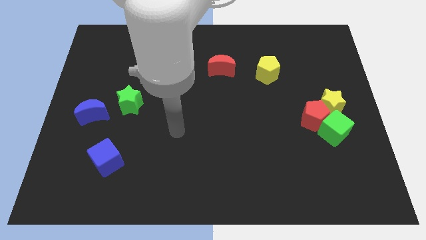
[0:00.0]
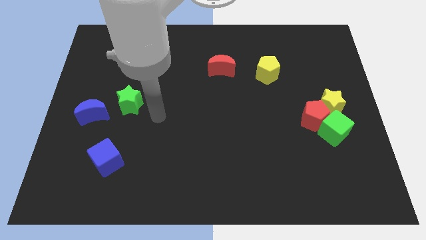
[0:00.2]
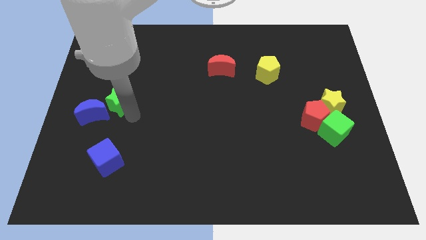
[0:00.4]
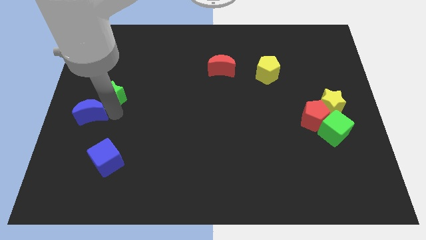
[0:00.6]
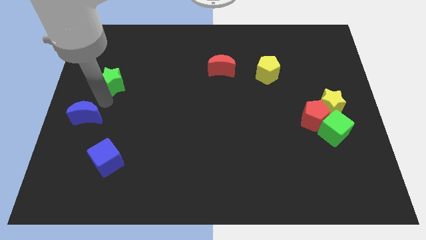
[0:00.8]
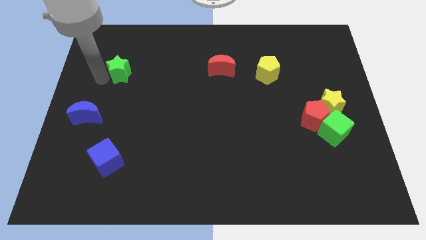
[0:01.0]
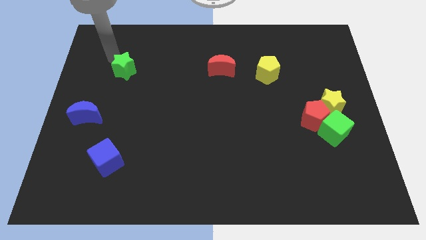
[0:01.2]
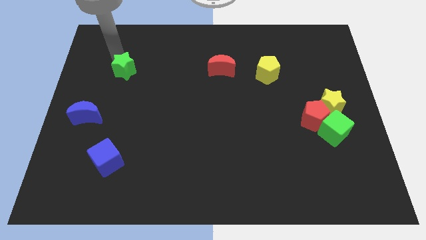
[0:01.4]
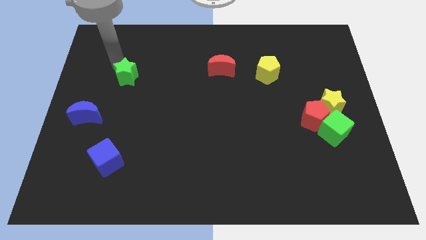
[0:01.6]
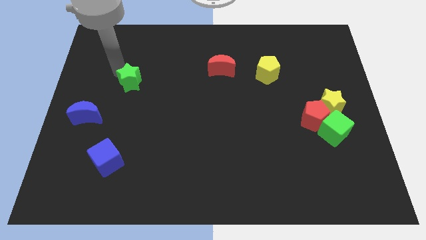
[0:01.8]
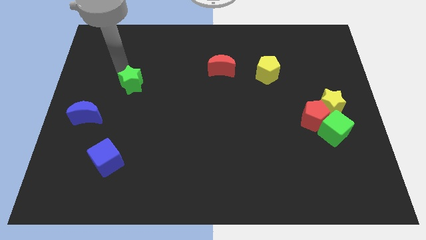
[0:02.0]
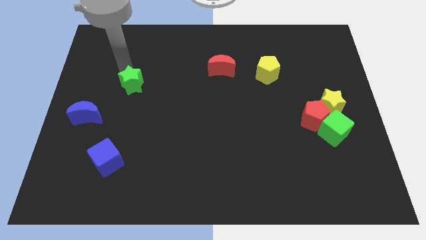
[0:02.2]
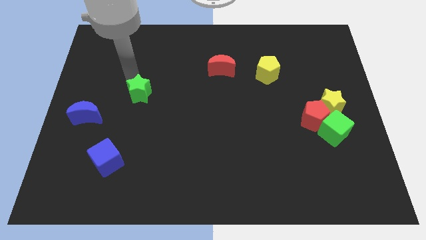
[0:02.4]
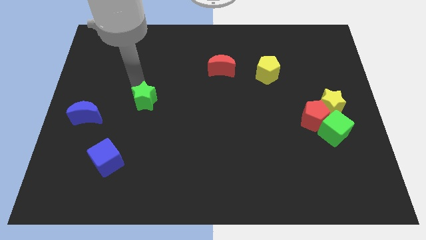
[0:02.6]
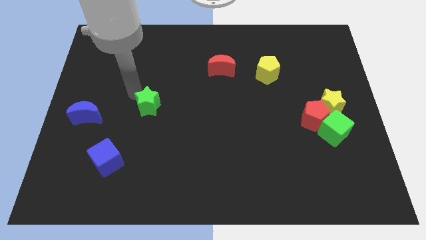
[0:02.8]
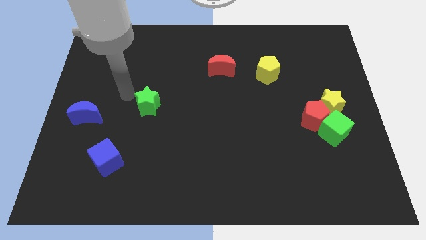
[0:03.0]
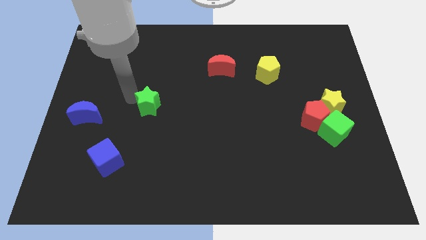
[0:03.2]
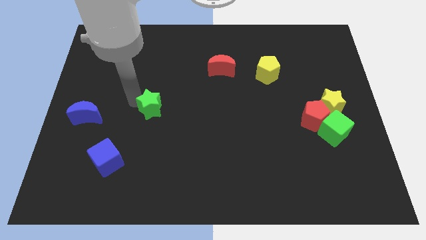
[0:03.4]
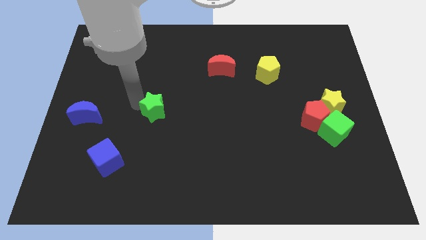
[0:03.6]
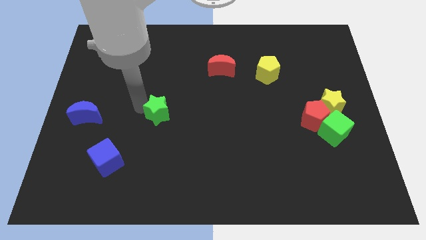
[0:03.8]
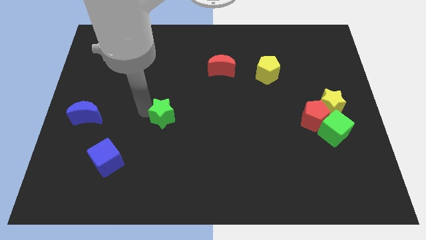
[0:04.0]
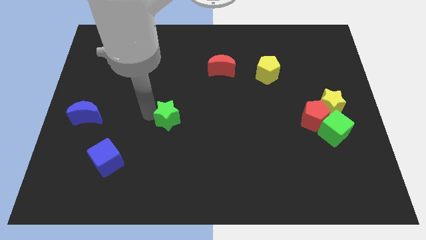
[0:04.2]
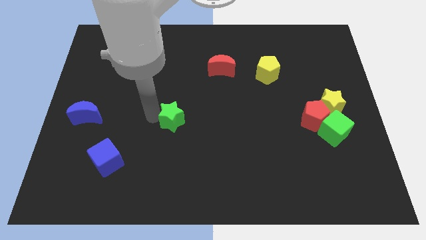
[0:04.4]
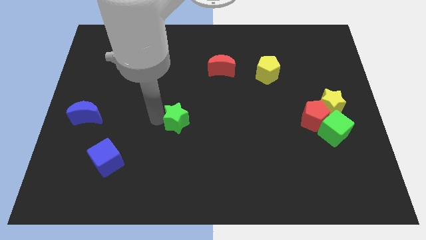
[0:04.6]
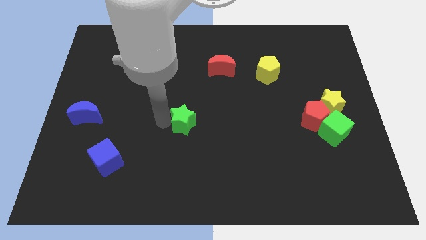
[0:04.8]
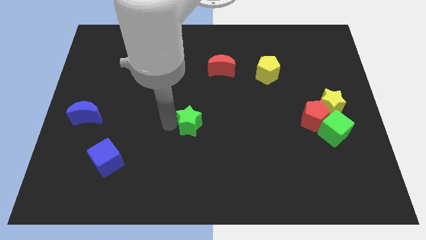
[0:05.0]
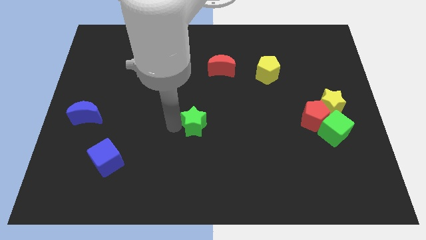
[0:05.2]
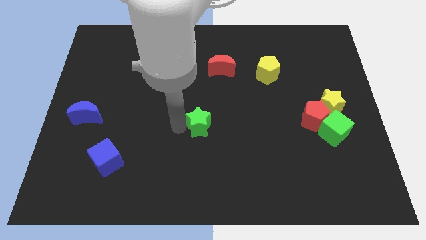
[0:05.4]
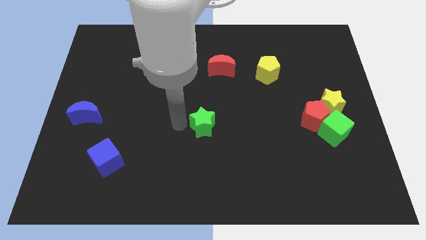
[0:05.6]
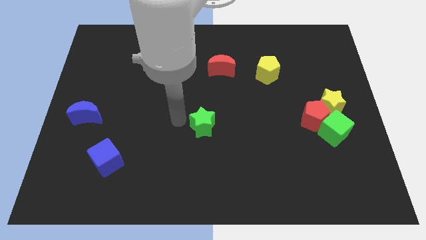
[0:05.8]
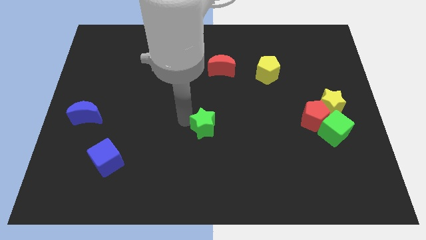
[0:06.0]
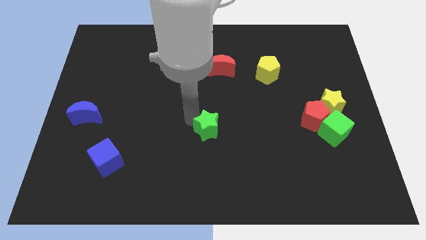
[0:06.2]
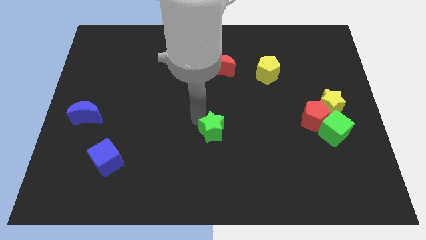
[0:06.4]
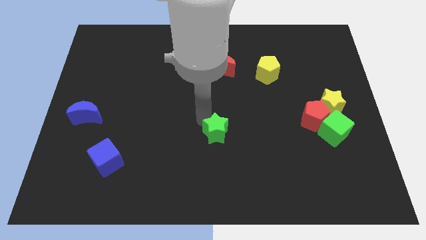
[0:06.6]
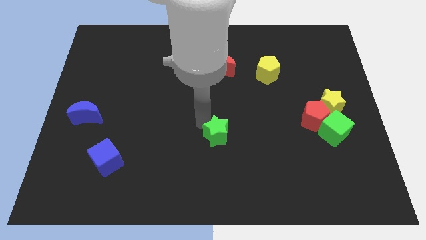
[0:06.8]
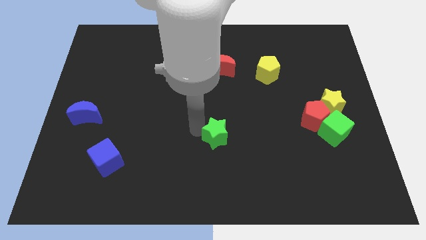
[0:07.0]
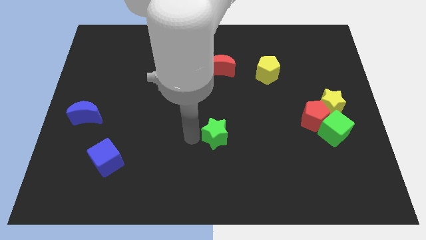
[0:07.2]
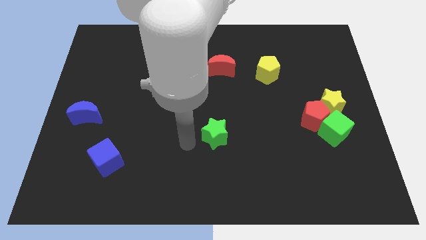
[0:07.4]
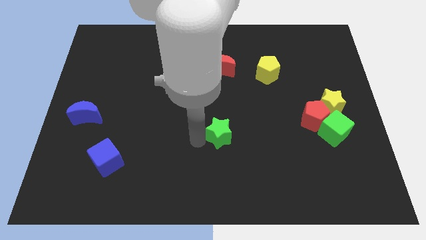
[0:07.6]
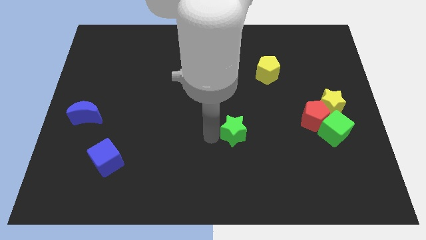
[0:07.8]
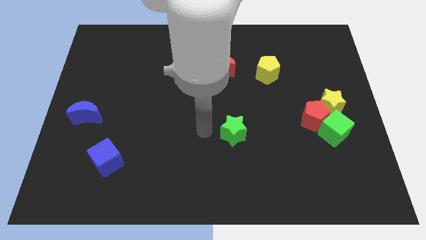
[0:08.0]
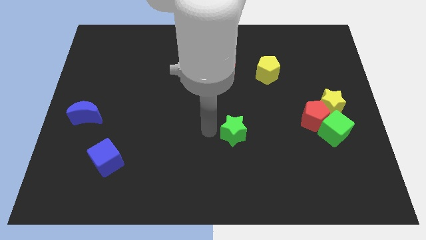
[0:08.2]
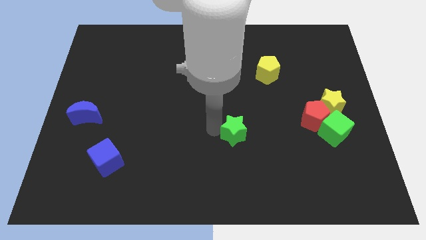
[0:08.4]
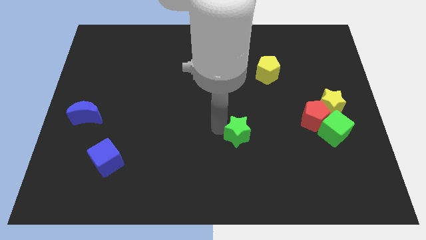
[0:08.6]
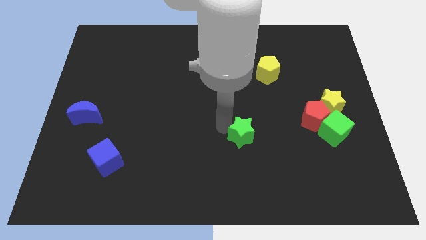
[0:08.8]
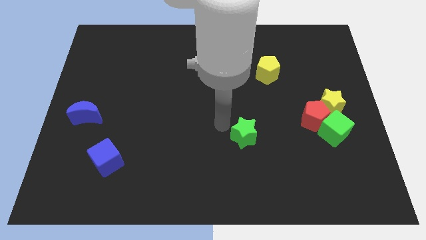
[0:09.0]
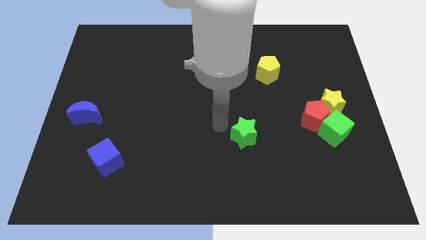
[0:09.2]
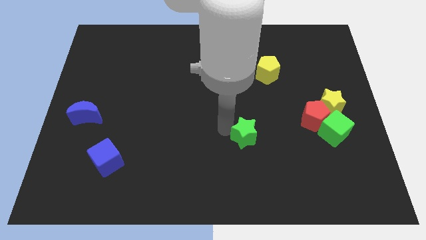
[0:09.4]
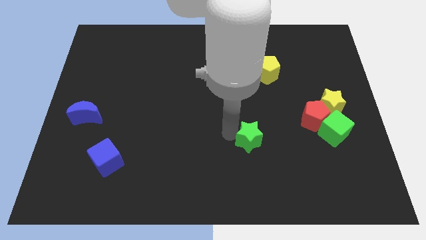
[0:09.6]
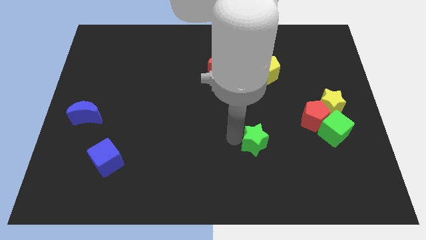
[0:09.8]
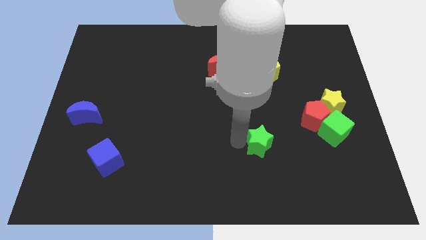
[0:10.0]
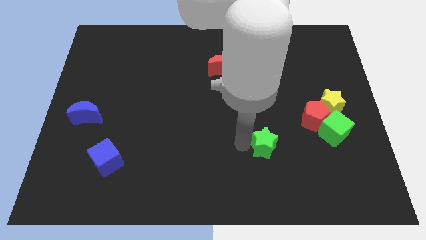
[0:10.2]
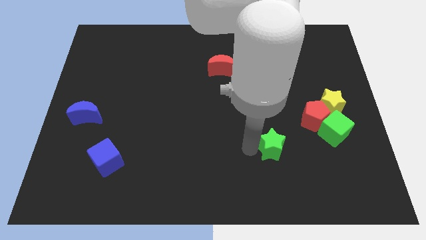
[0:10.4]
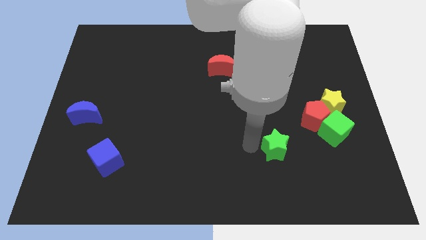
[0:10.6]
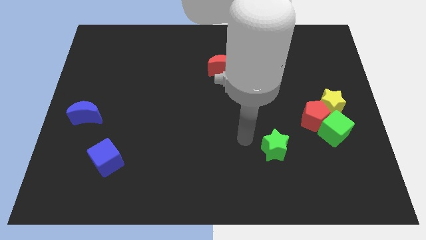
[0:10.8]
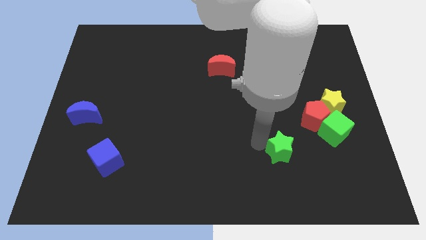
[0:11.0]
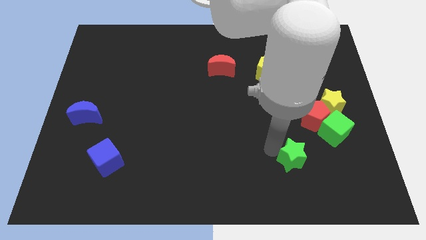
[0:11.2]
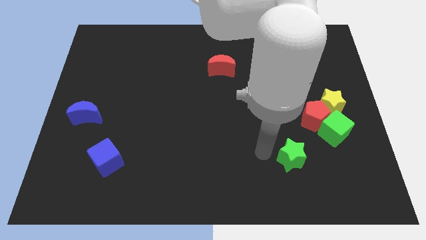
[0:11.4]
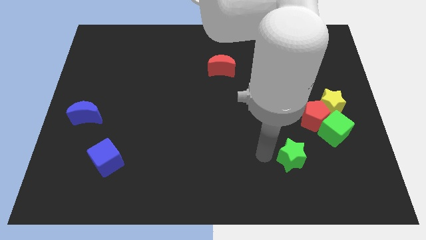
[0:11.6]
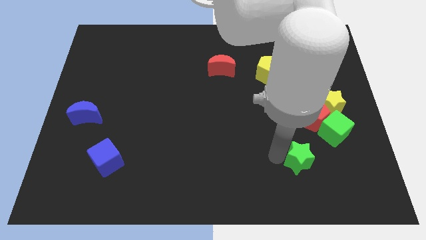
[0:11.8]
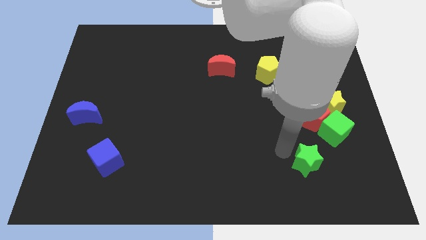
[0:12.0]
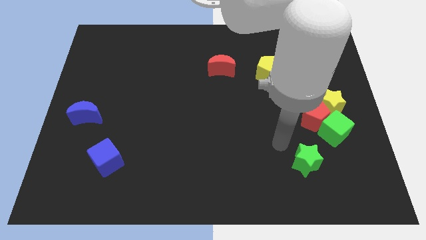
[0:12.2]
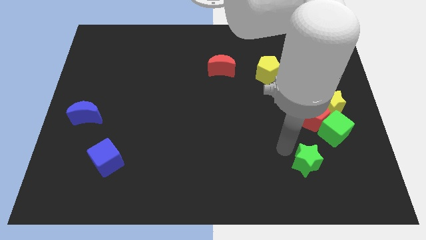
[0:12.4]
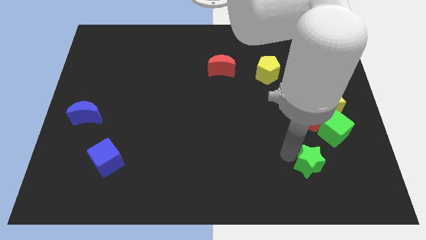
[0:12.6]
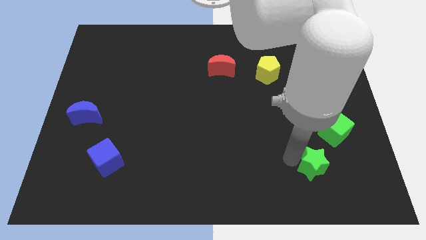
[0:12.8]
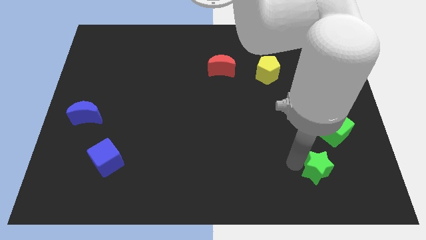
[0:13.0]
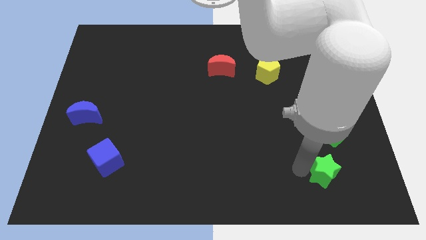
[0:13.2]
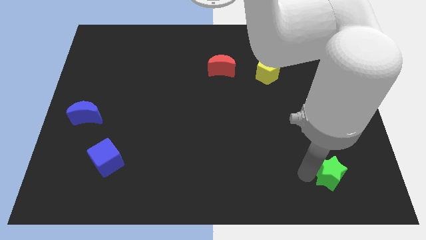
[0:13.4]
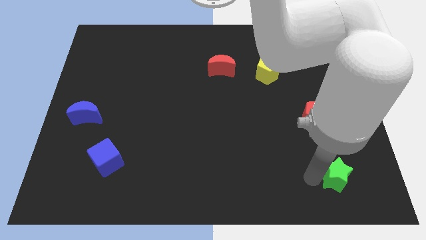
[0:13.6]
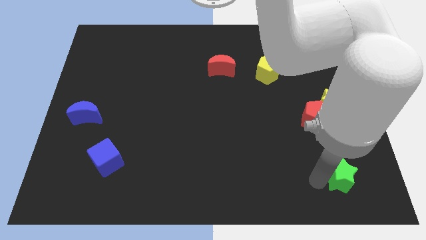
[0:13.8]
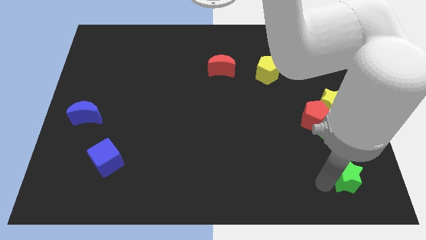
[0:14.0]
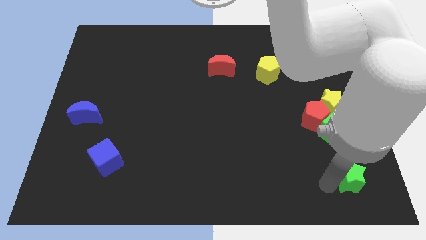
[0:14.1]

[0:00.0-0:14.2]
put the green star to the bottom right

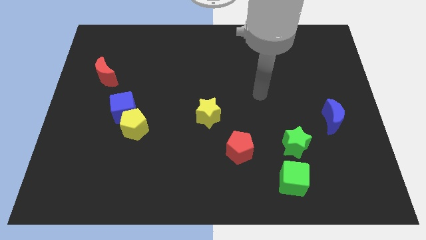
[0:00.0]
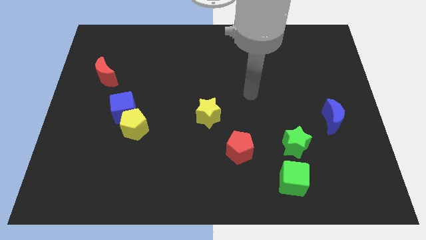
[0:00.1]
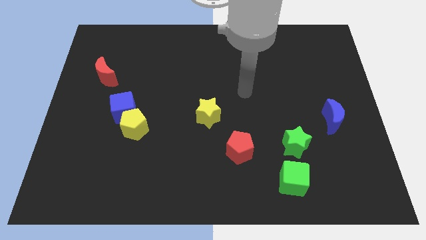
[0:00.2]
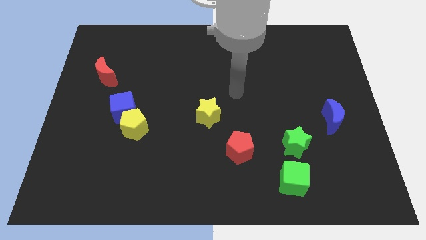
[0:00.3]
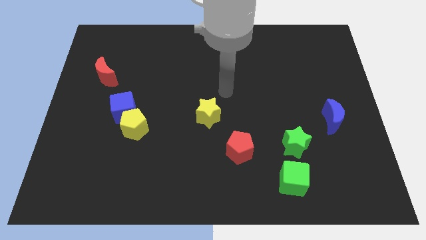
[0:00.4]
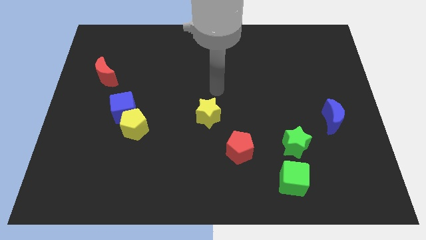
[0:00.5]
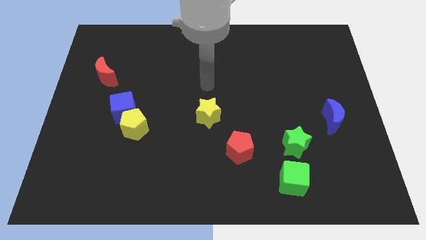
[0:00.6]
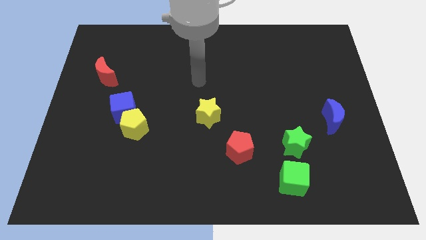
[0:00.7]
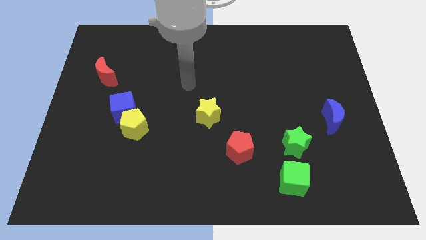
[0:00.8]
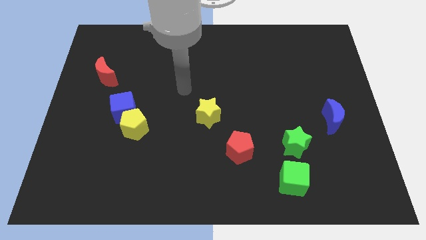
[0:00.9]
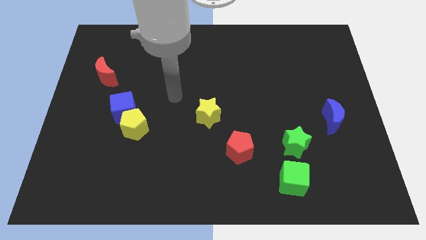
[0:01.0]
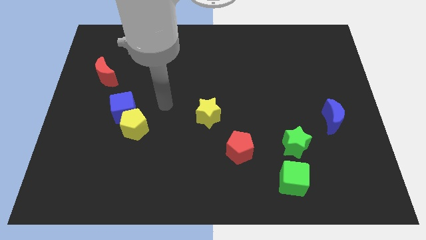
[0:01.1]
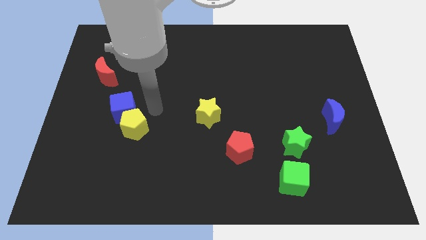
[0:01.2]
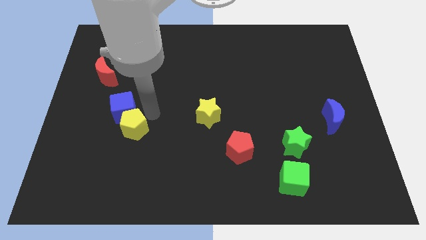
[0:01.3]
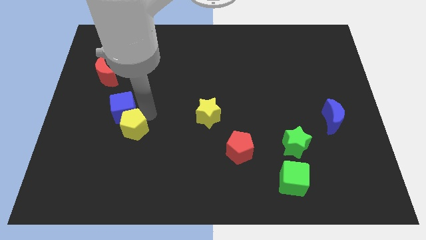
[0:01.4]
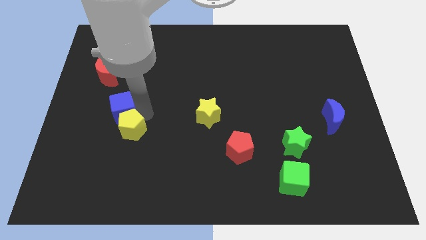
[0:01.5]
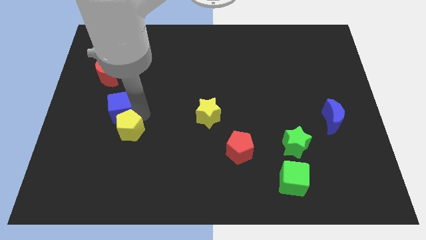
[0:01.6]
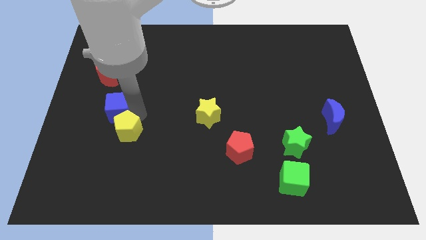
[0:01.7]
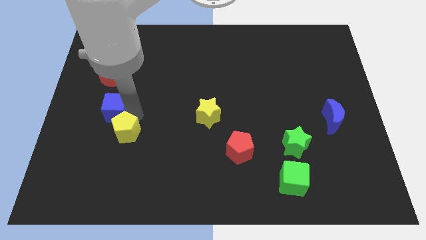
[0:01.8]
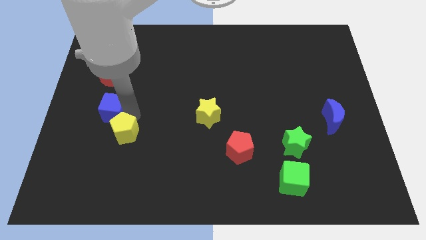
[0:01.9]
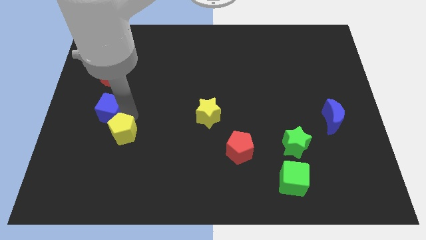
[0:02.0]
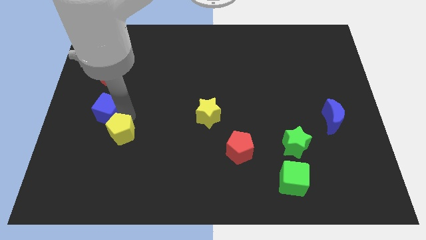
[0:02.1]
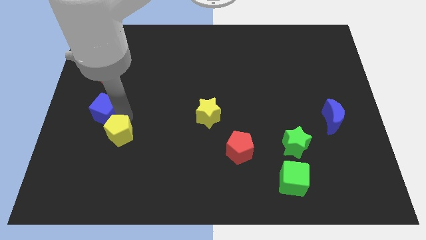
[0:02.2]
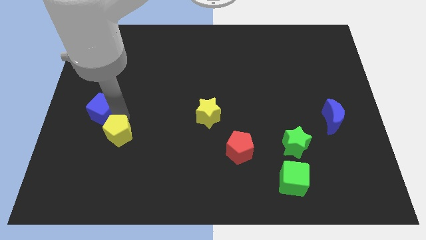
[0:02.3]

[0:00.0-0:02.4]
move the blue cube to the center left
